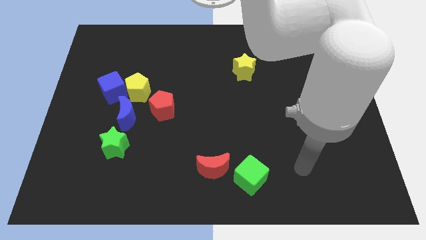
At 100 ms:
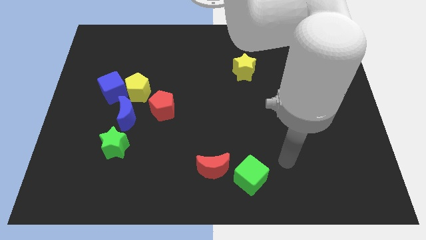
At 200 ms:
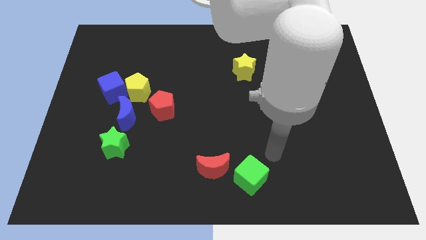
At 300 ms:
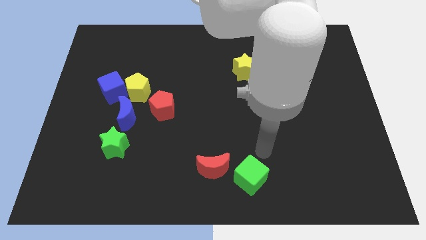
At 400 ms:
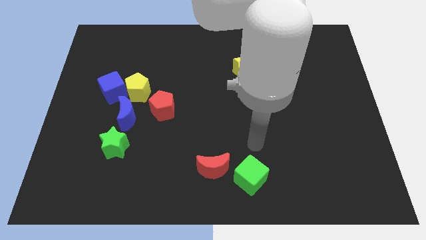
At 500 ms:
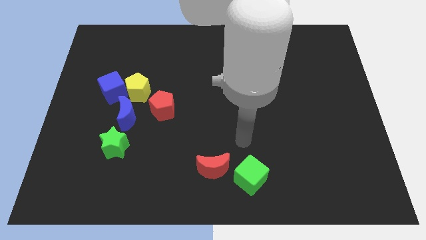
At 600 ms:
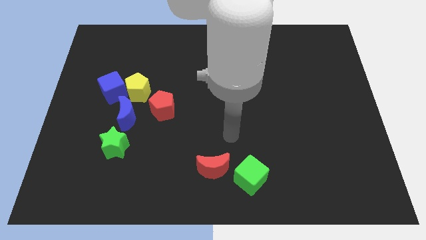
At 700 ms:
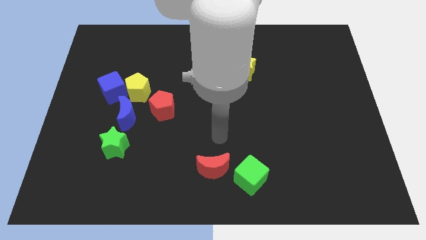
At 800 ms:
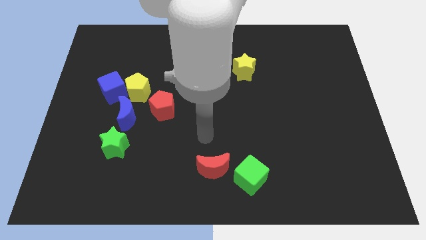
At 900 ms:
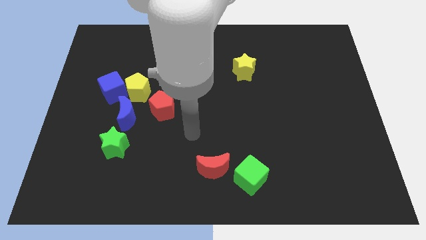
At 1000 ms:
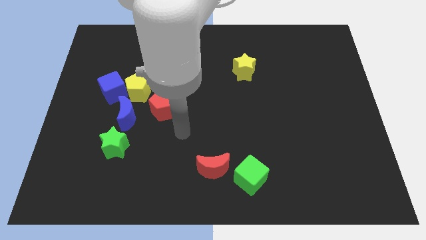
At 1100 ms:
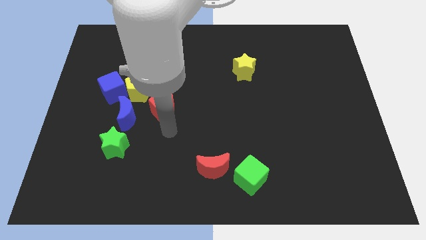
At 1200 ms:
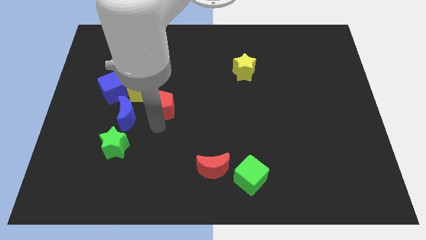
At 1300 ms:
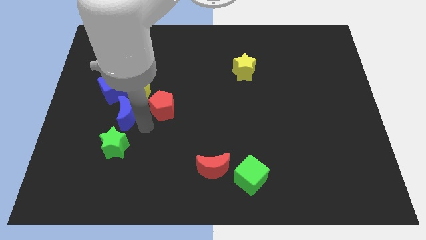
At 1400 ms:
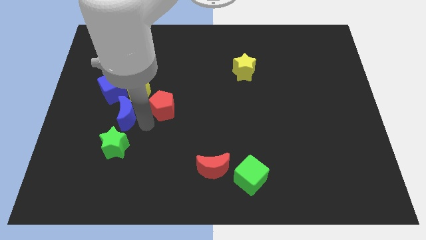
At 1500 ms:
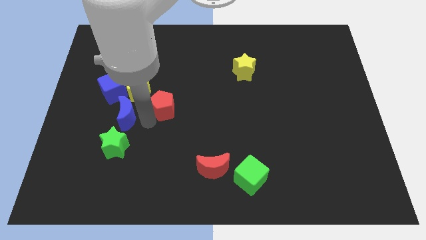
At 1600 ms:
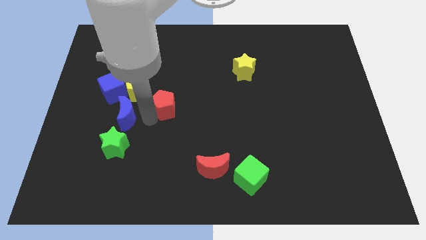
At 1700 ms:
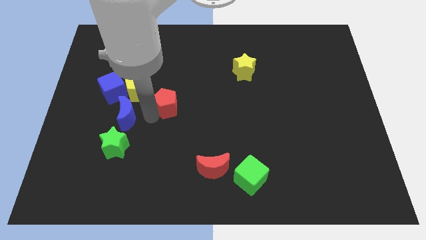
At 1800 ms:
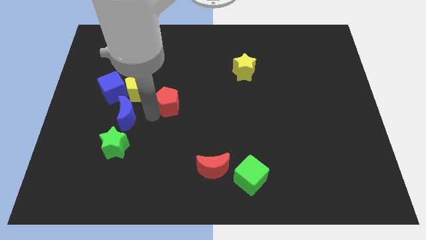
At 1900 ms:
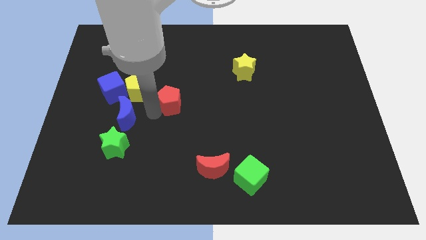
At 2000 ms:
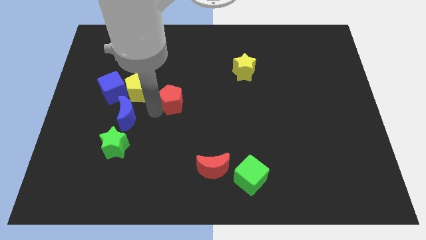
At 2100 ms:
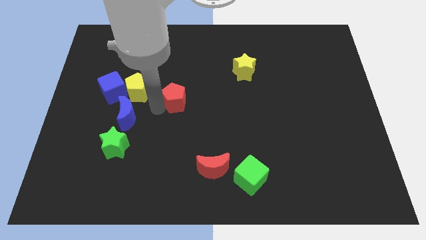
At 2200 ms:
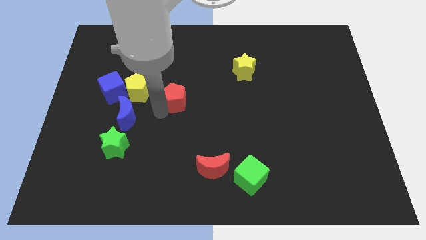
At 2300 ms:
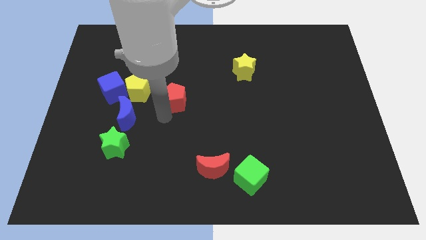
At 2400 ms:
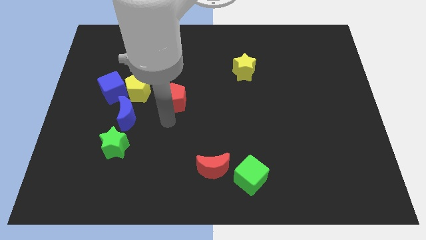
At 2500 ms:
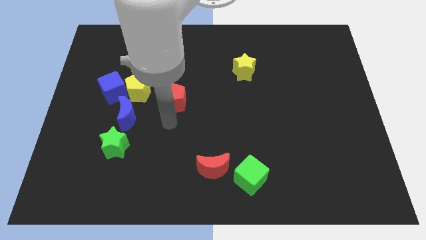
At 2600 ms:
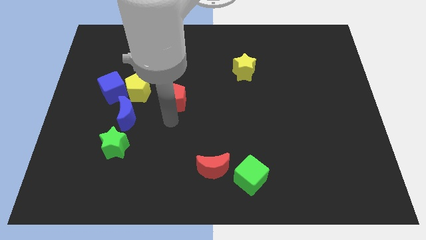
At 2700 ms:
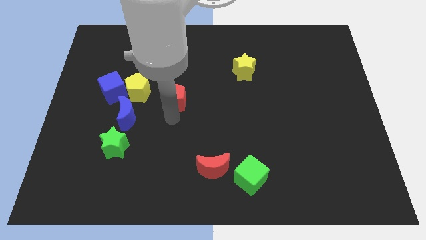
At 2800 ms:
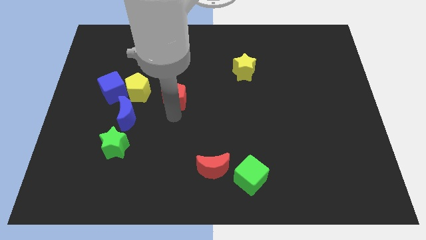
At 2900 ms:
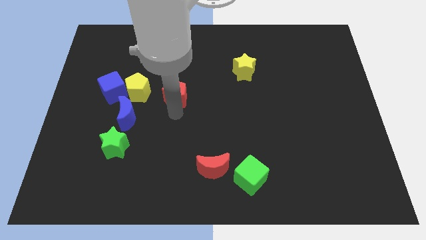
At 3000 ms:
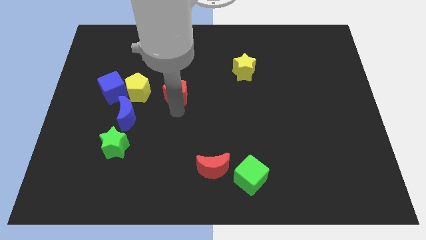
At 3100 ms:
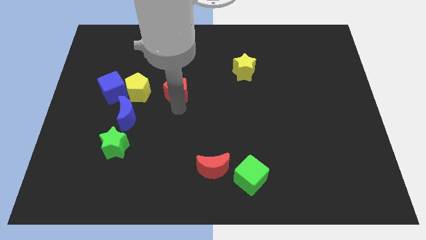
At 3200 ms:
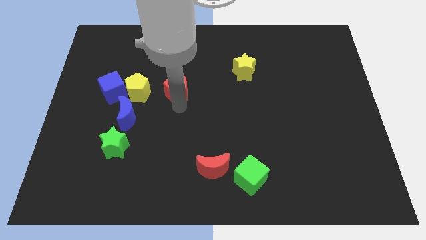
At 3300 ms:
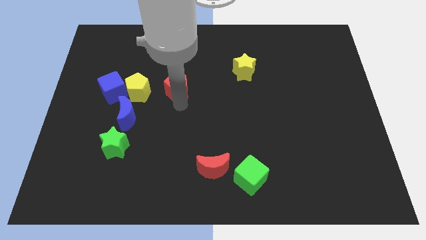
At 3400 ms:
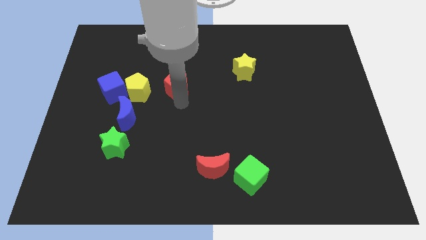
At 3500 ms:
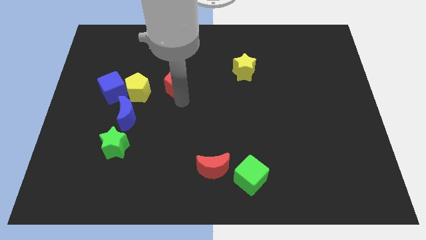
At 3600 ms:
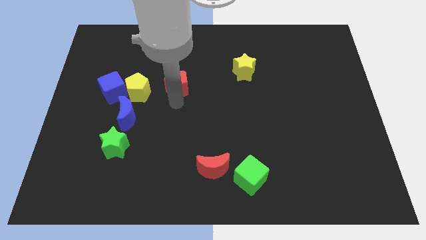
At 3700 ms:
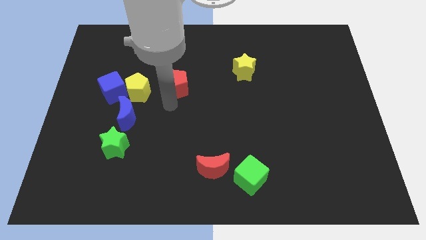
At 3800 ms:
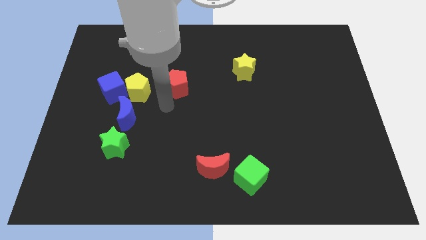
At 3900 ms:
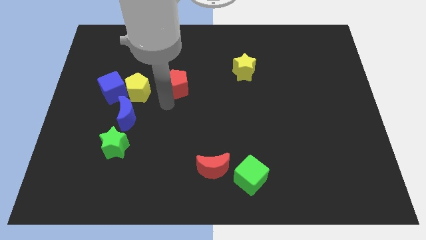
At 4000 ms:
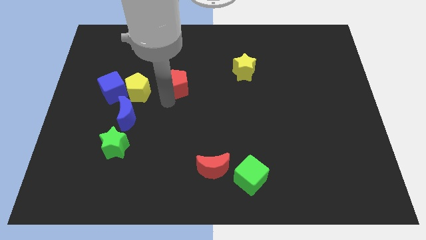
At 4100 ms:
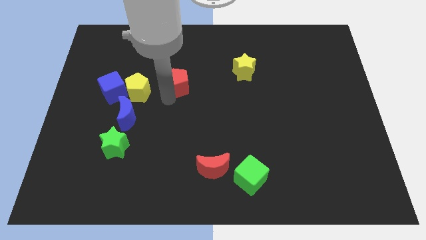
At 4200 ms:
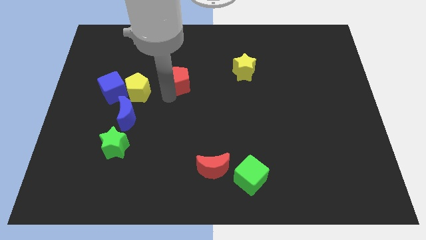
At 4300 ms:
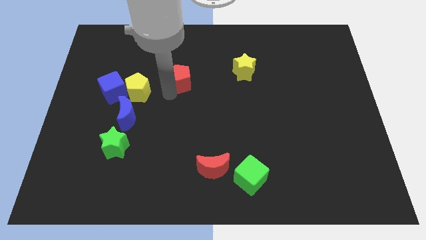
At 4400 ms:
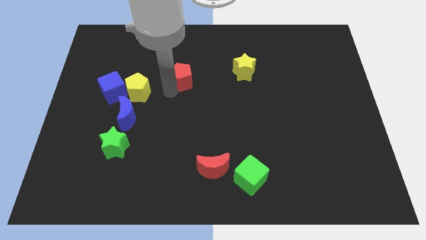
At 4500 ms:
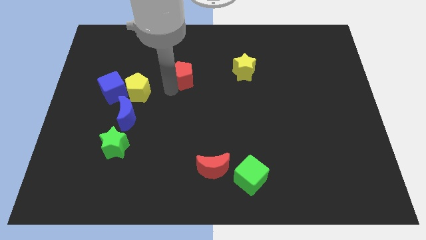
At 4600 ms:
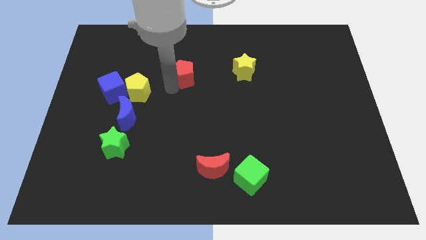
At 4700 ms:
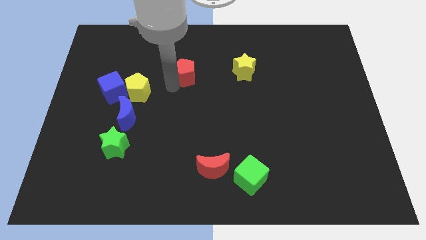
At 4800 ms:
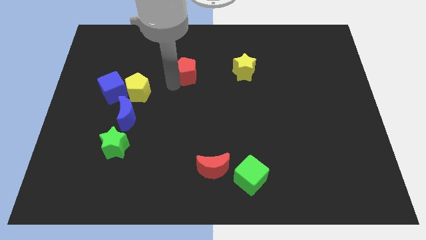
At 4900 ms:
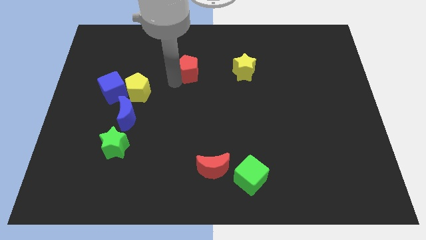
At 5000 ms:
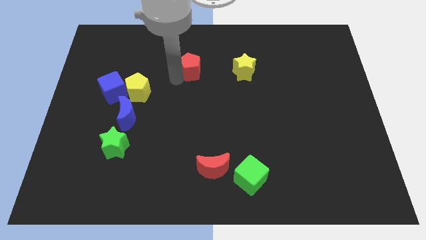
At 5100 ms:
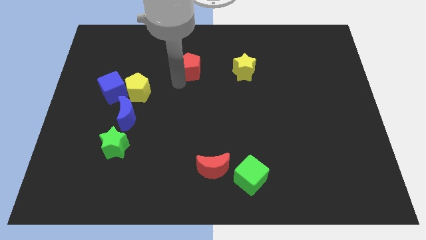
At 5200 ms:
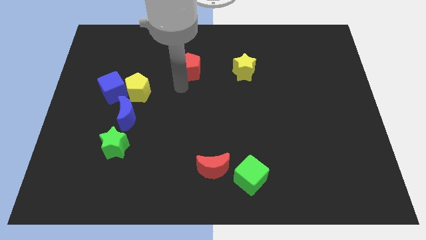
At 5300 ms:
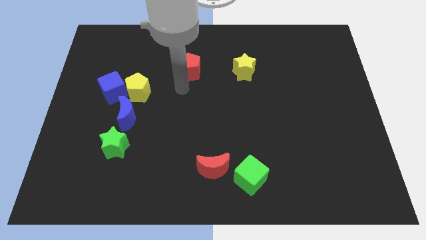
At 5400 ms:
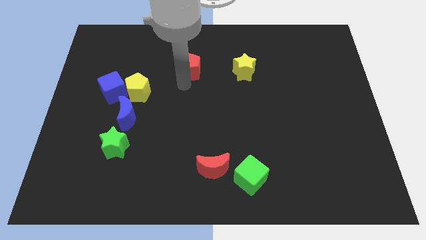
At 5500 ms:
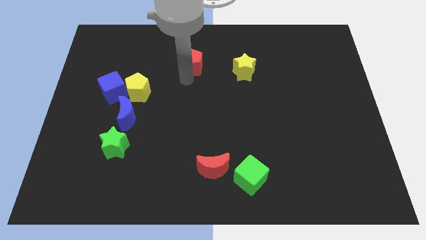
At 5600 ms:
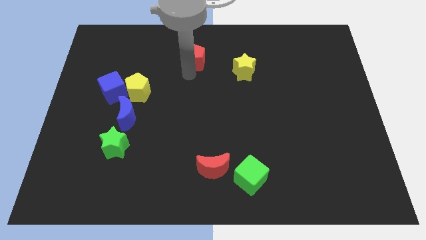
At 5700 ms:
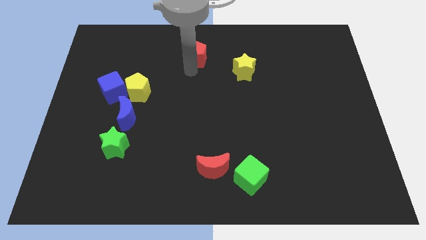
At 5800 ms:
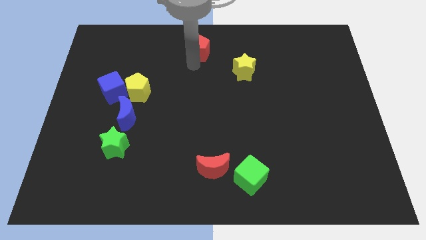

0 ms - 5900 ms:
push the red pentagon to the top

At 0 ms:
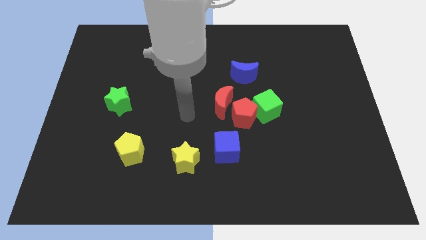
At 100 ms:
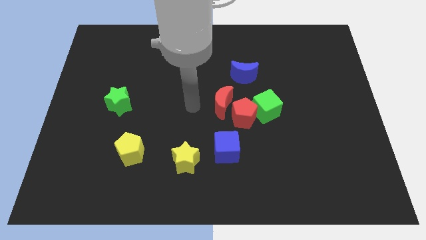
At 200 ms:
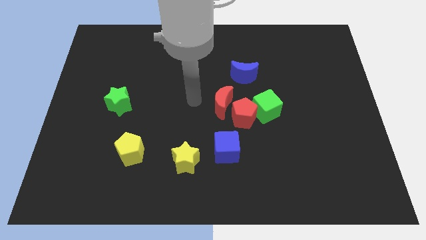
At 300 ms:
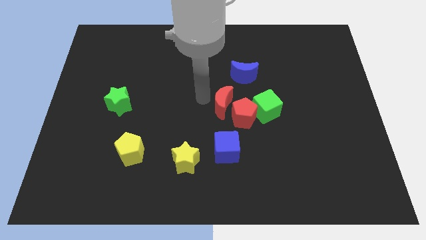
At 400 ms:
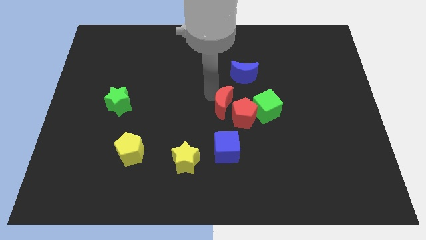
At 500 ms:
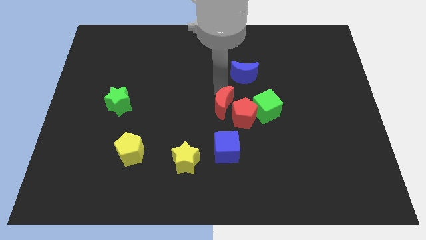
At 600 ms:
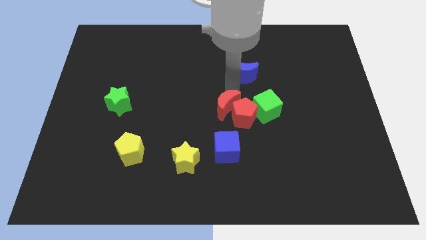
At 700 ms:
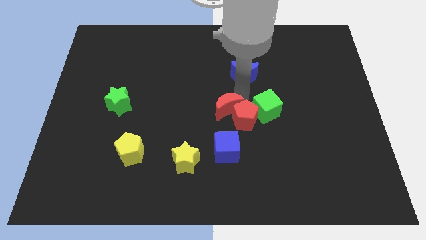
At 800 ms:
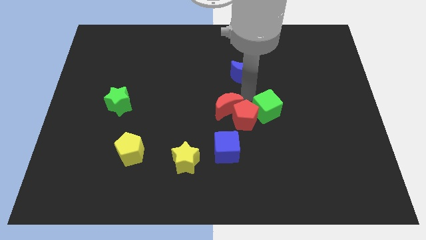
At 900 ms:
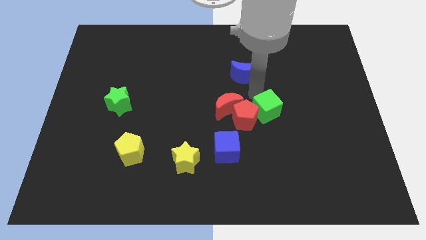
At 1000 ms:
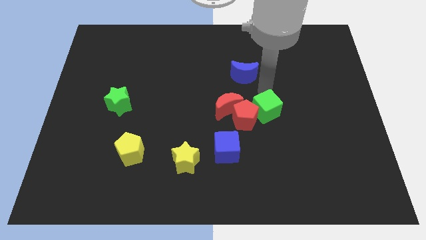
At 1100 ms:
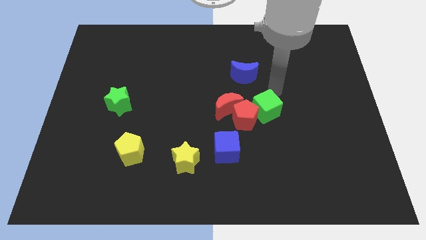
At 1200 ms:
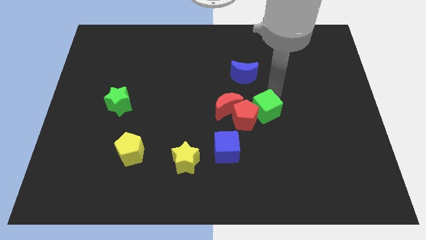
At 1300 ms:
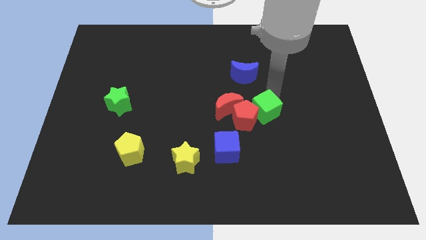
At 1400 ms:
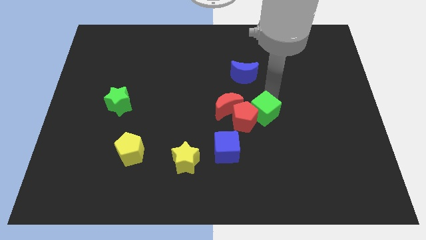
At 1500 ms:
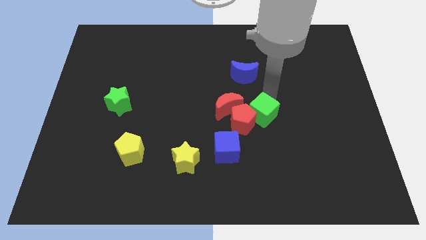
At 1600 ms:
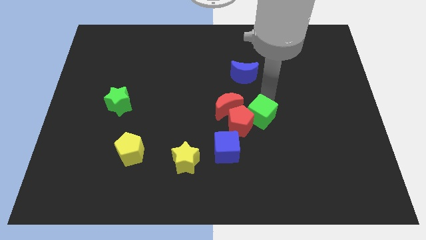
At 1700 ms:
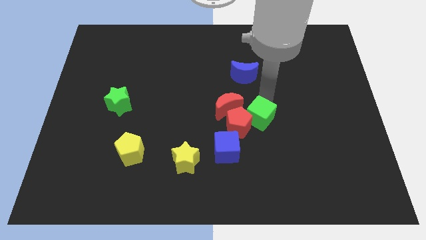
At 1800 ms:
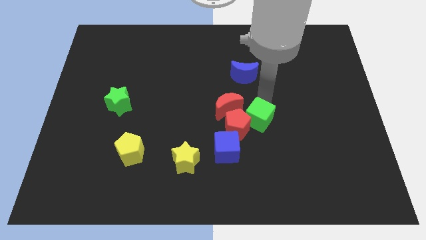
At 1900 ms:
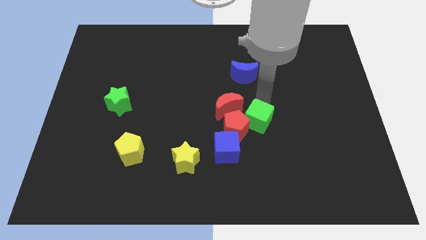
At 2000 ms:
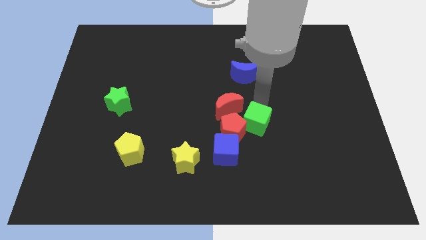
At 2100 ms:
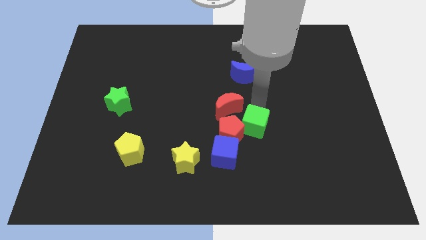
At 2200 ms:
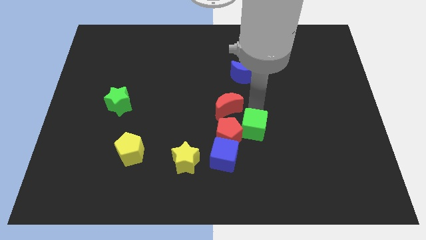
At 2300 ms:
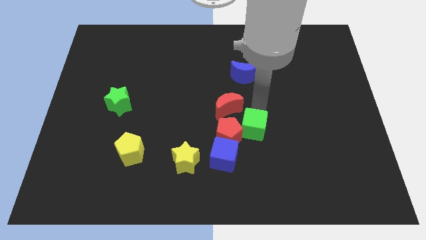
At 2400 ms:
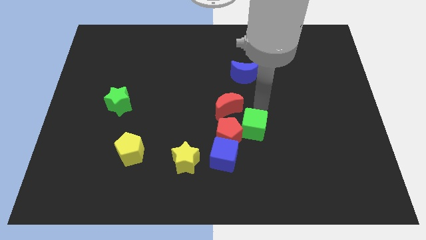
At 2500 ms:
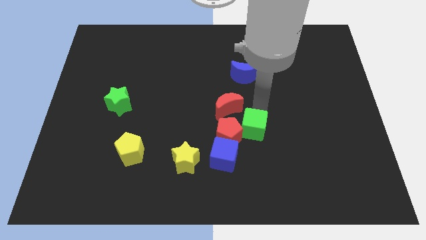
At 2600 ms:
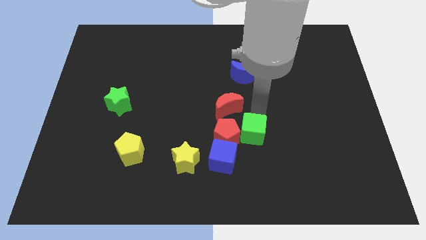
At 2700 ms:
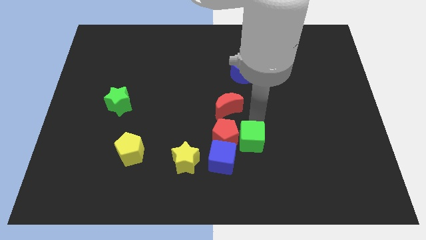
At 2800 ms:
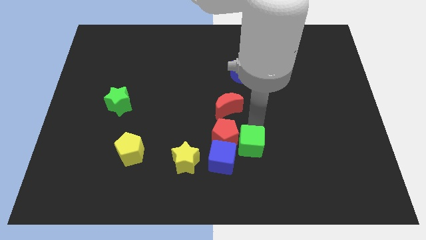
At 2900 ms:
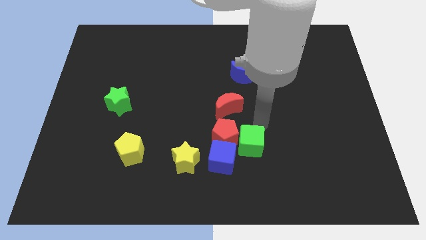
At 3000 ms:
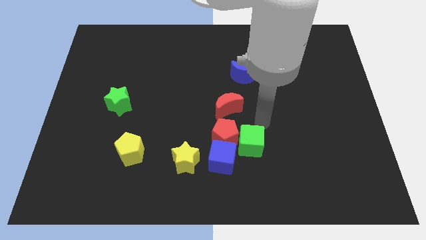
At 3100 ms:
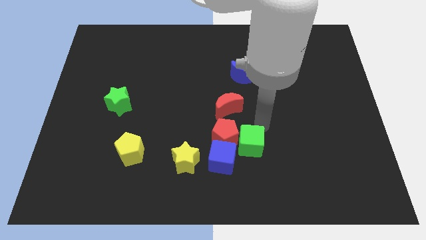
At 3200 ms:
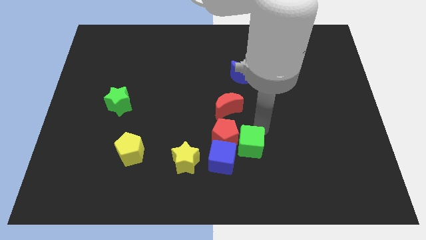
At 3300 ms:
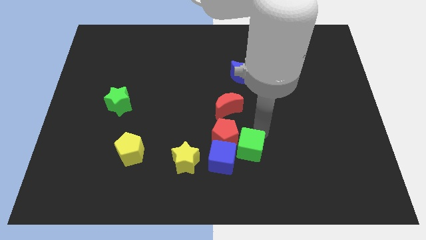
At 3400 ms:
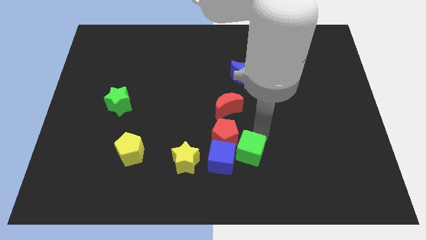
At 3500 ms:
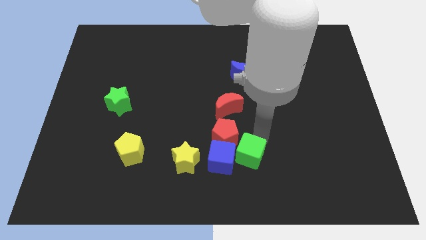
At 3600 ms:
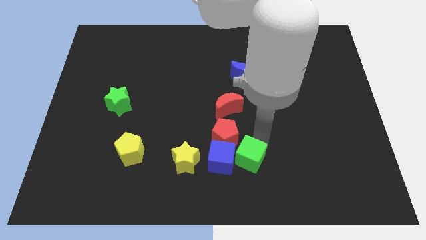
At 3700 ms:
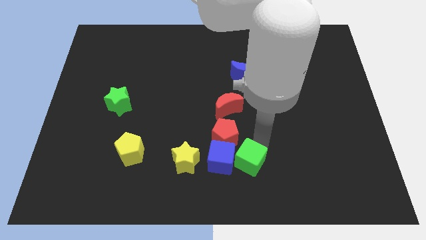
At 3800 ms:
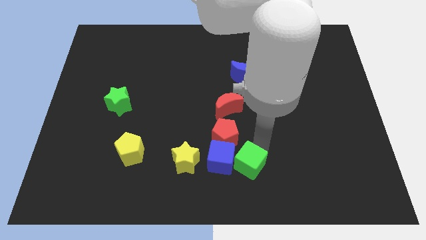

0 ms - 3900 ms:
slide the green cube to the bottom side
